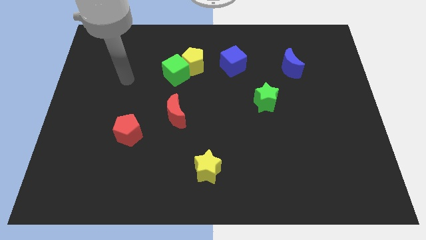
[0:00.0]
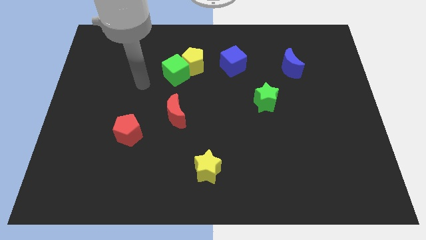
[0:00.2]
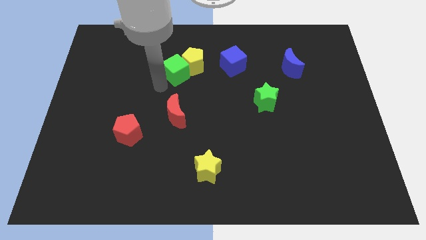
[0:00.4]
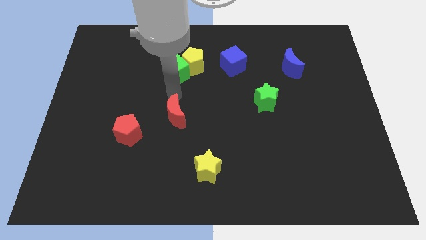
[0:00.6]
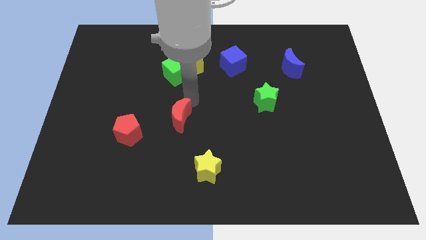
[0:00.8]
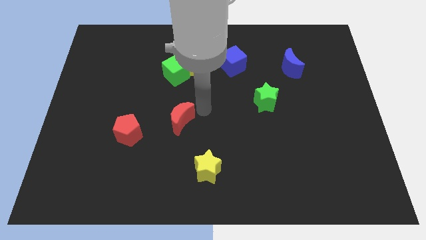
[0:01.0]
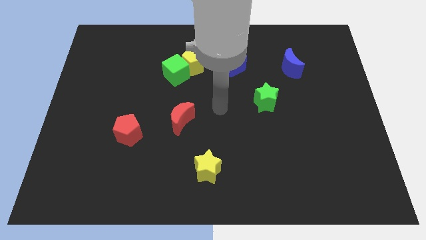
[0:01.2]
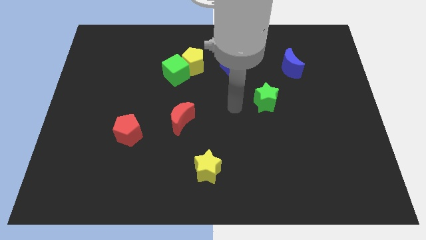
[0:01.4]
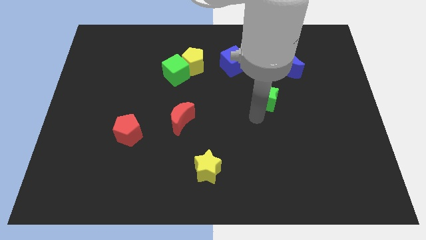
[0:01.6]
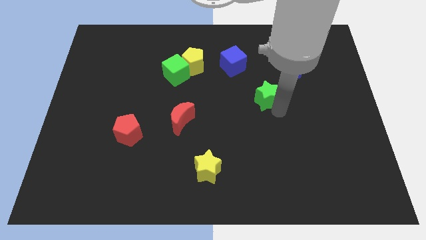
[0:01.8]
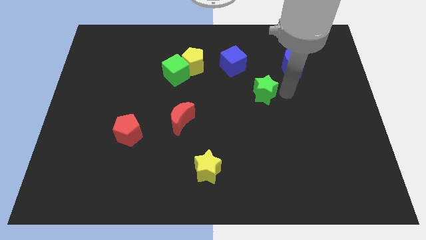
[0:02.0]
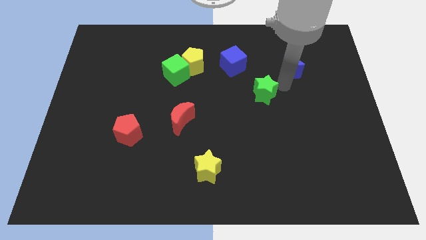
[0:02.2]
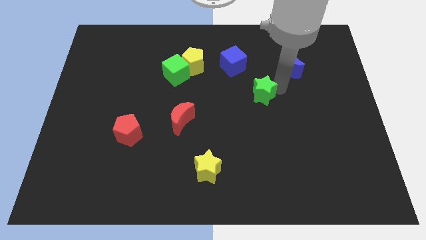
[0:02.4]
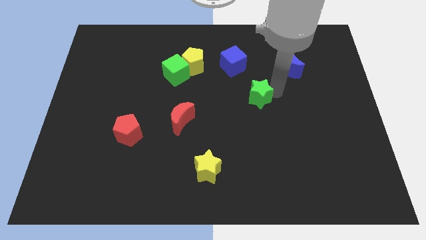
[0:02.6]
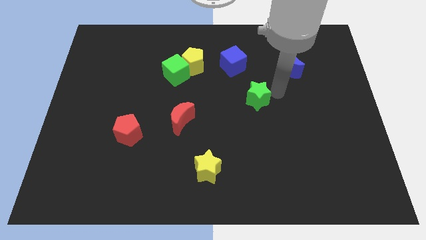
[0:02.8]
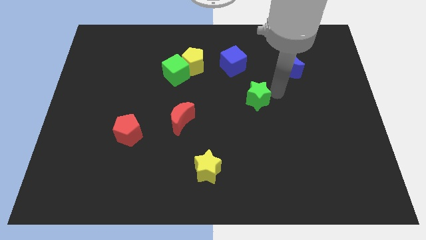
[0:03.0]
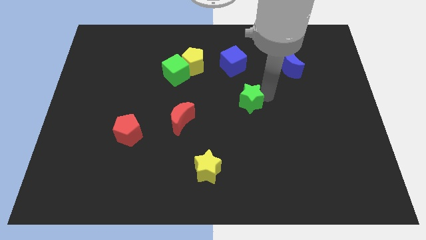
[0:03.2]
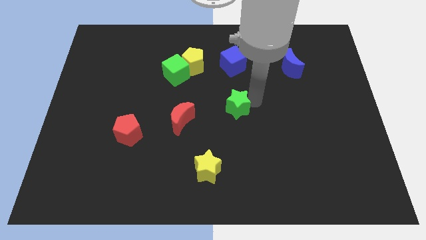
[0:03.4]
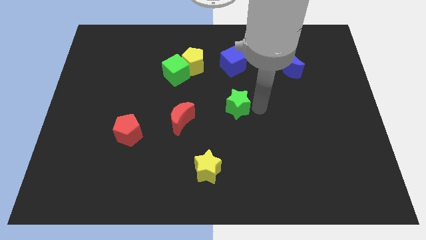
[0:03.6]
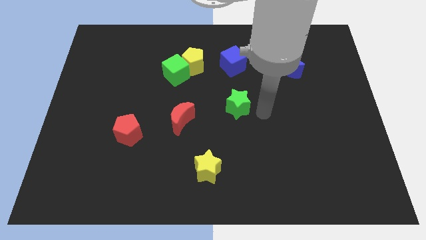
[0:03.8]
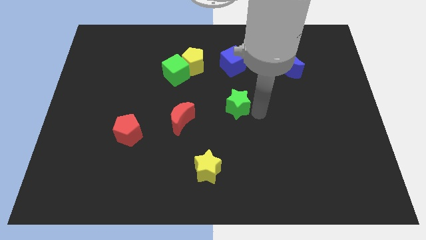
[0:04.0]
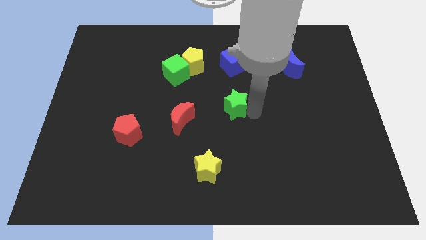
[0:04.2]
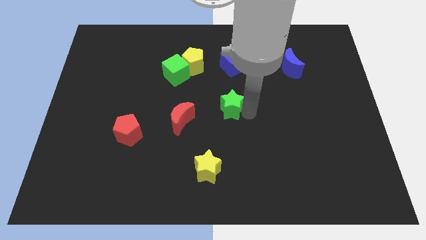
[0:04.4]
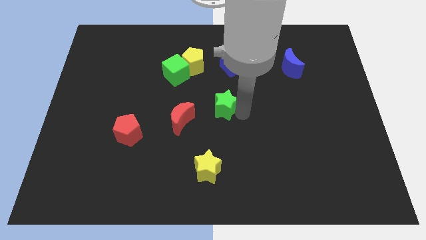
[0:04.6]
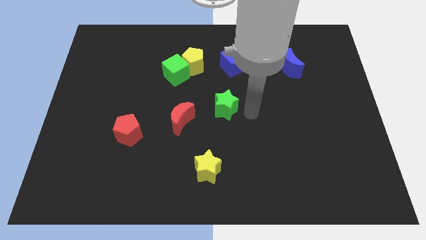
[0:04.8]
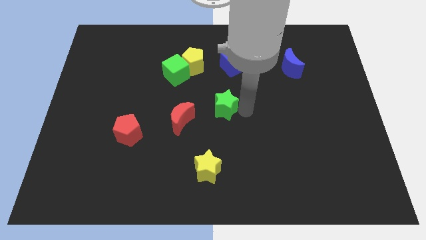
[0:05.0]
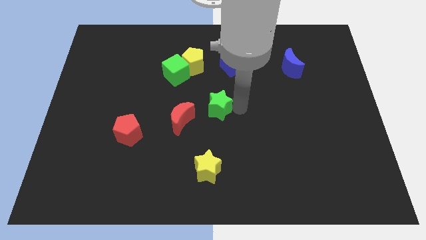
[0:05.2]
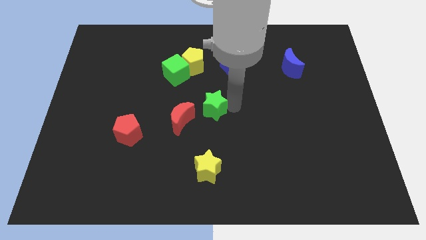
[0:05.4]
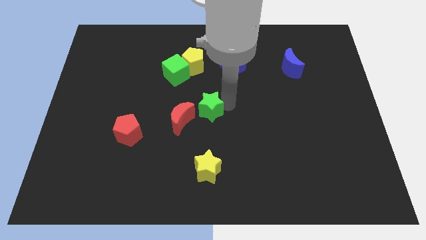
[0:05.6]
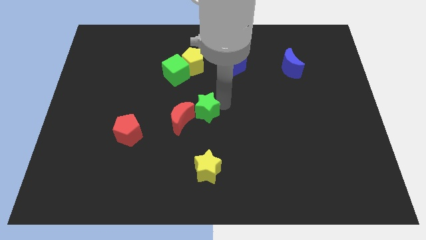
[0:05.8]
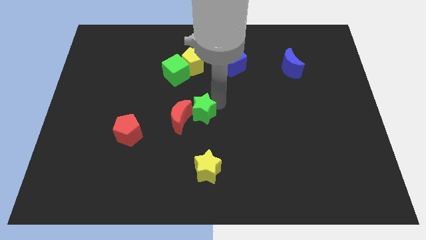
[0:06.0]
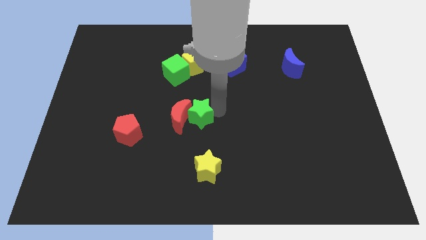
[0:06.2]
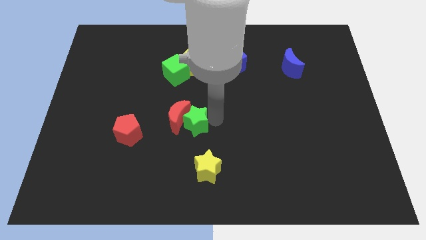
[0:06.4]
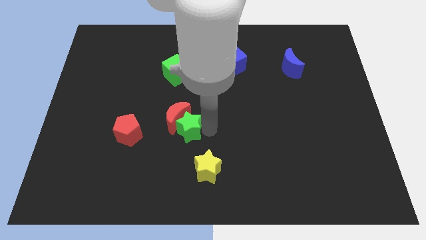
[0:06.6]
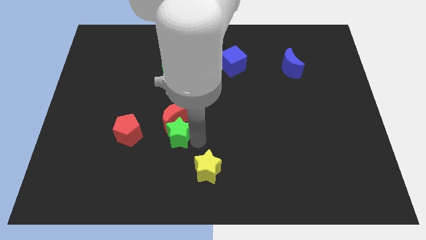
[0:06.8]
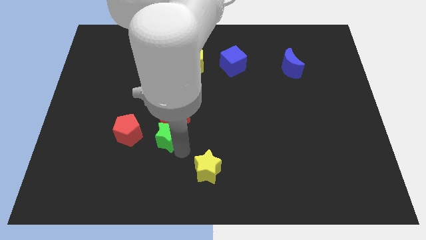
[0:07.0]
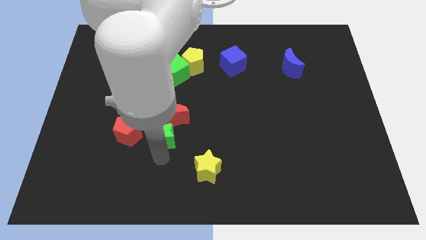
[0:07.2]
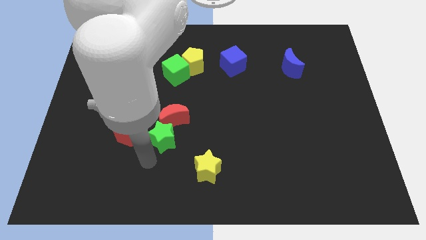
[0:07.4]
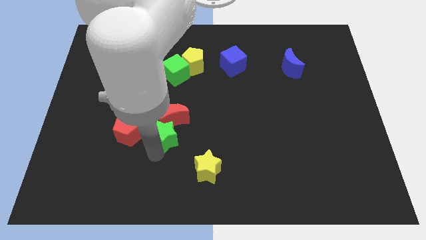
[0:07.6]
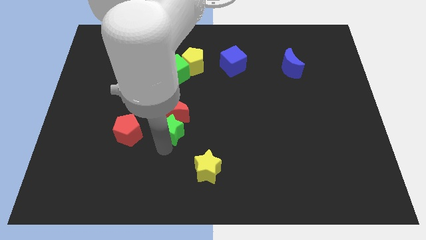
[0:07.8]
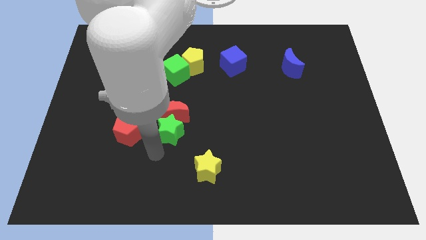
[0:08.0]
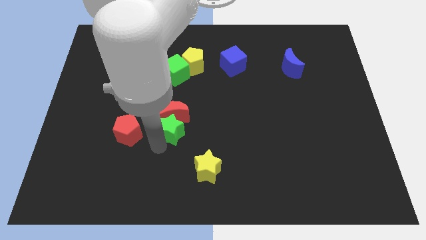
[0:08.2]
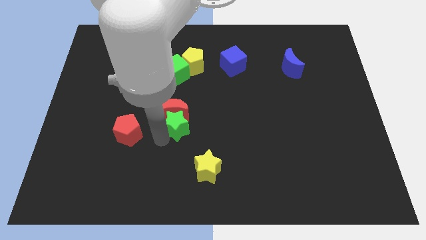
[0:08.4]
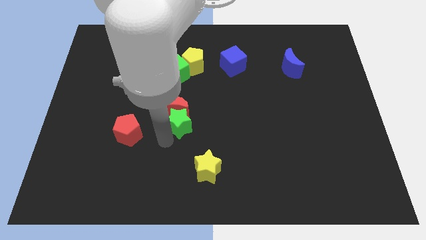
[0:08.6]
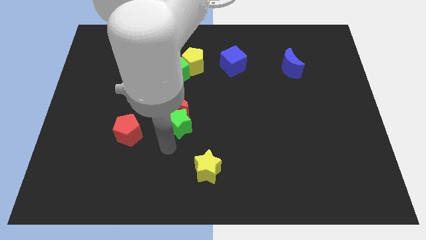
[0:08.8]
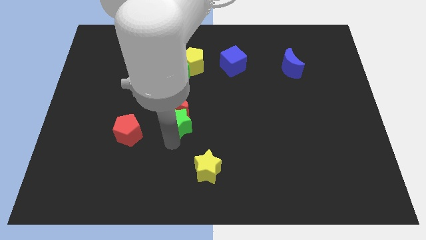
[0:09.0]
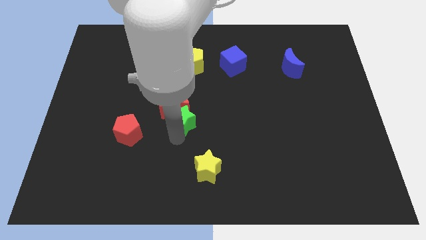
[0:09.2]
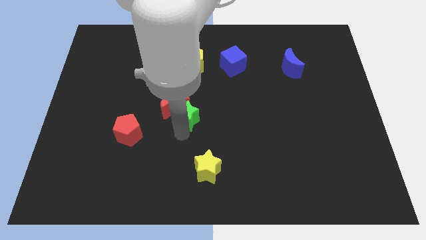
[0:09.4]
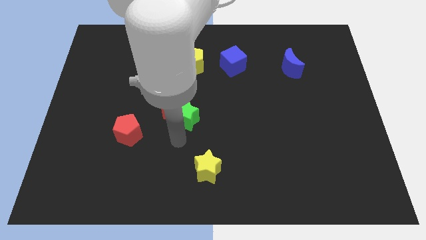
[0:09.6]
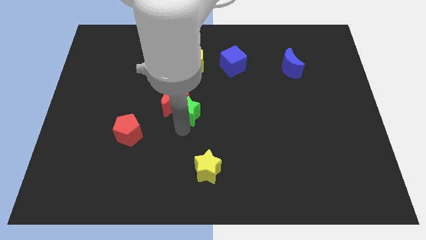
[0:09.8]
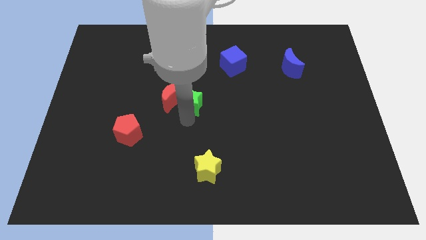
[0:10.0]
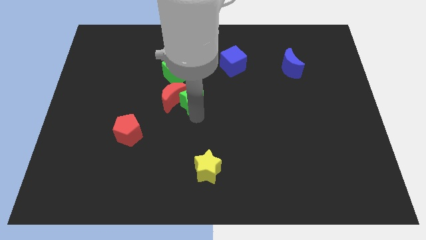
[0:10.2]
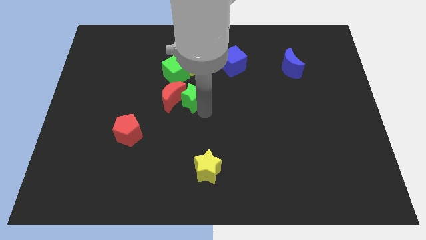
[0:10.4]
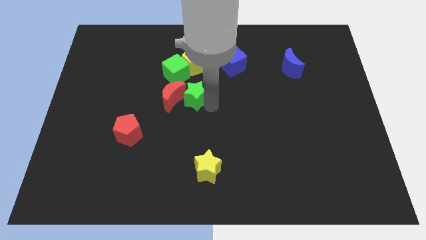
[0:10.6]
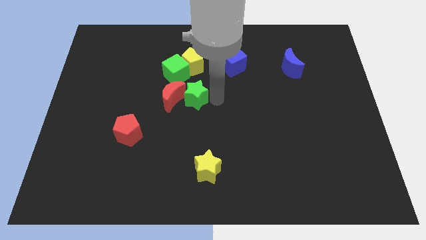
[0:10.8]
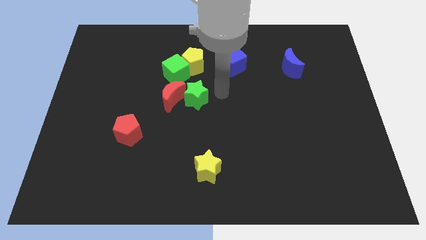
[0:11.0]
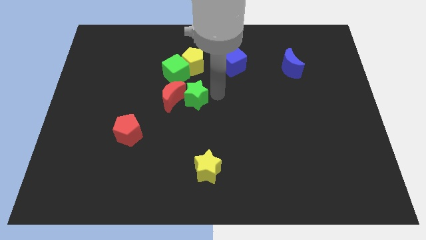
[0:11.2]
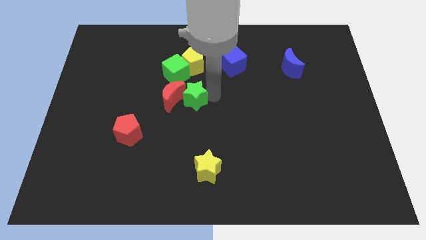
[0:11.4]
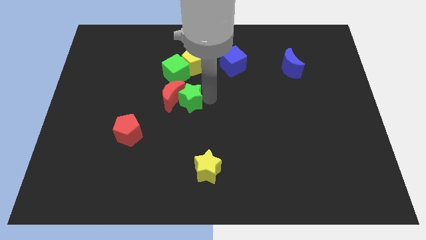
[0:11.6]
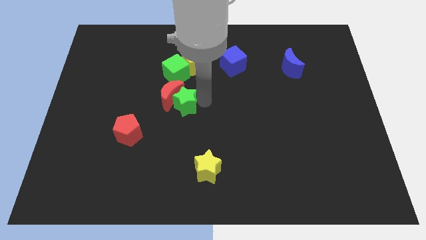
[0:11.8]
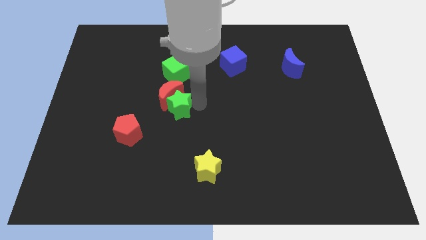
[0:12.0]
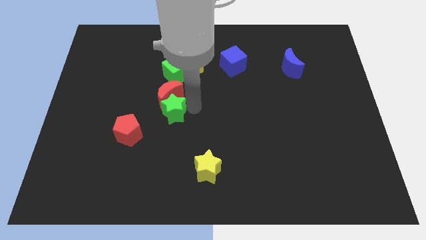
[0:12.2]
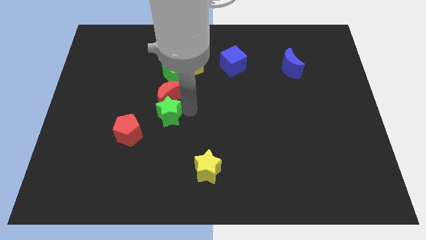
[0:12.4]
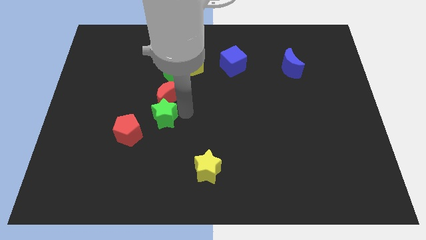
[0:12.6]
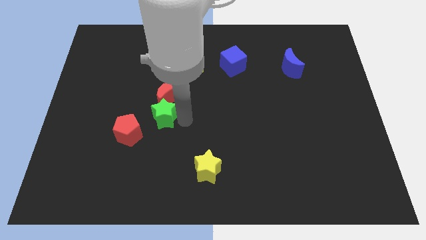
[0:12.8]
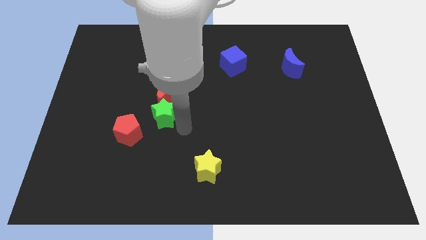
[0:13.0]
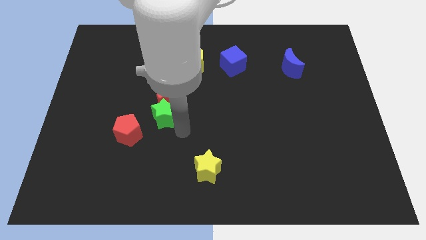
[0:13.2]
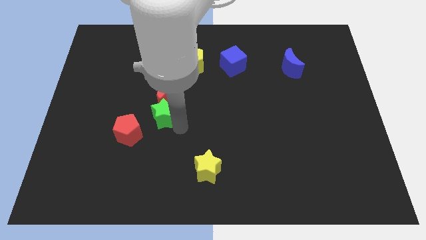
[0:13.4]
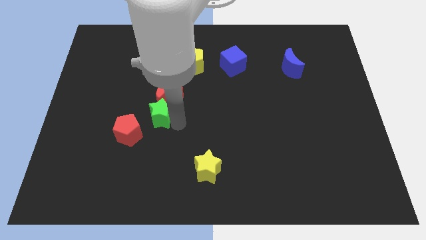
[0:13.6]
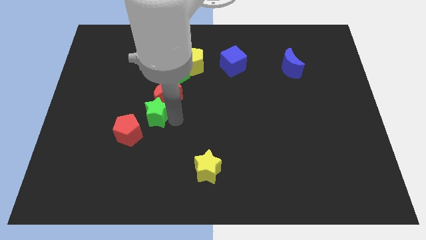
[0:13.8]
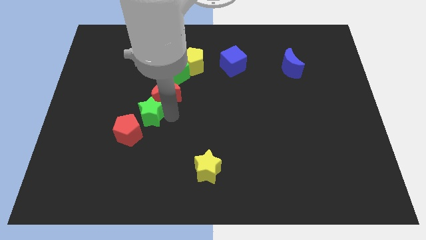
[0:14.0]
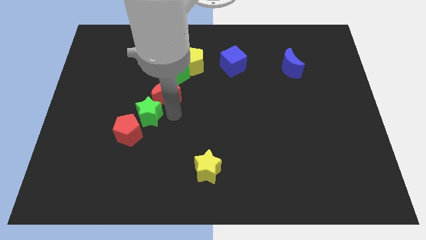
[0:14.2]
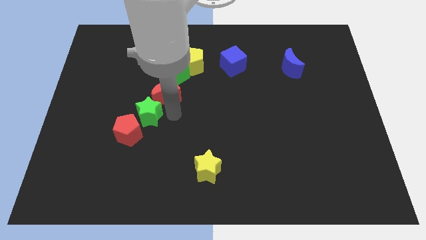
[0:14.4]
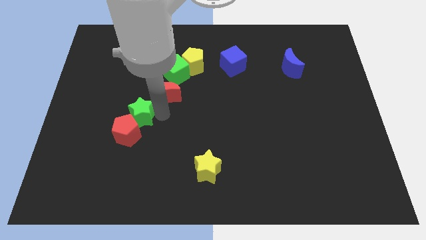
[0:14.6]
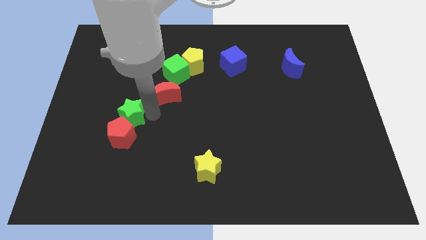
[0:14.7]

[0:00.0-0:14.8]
push the green star to the top left side of the red pentagon
